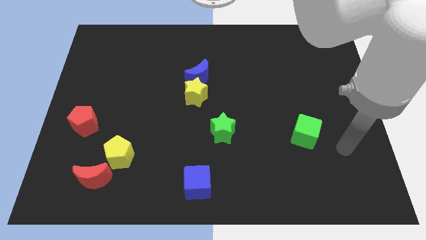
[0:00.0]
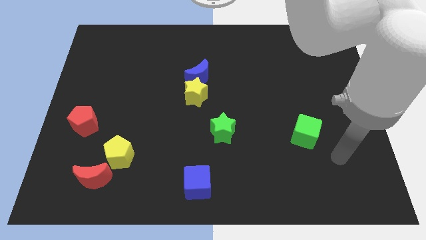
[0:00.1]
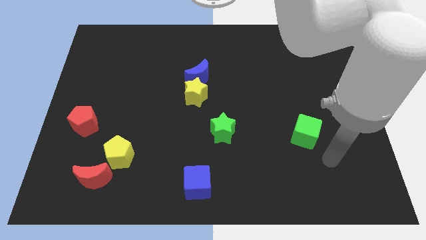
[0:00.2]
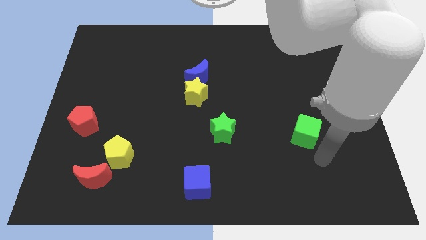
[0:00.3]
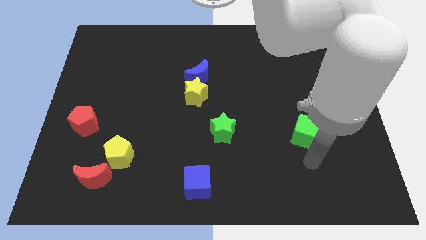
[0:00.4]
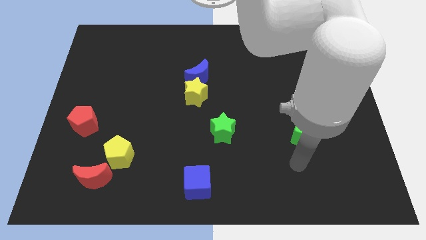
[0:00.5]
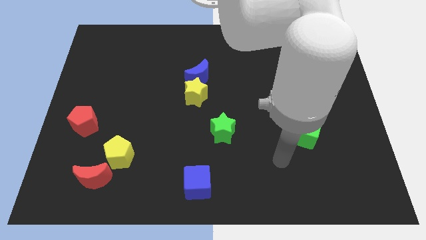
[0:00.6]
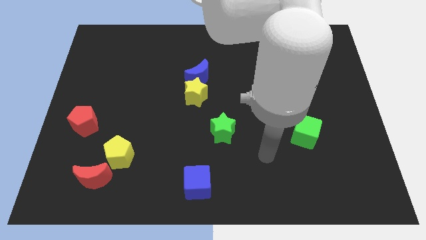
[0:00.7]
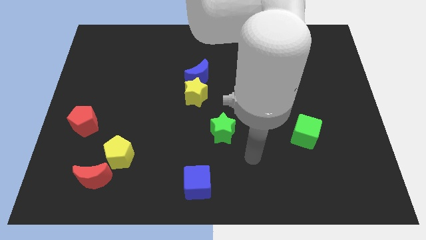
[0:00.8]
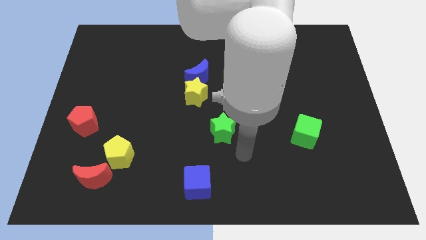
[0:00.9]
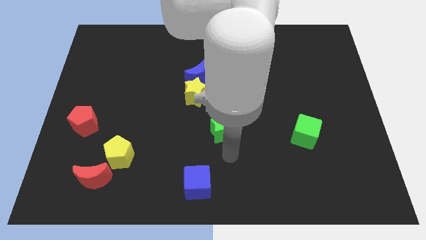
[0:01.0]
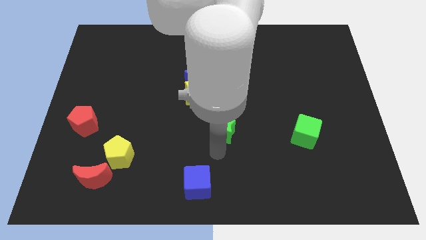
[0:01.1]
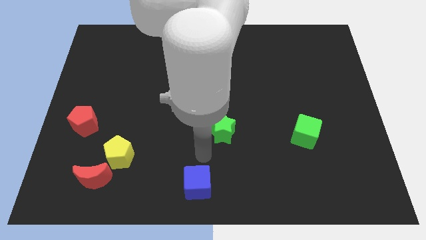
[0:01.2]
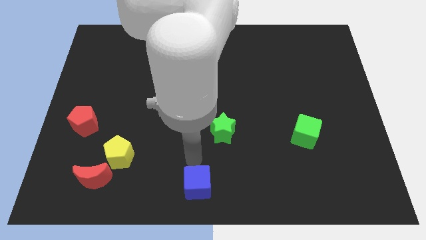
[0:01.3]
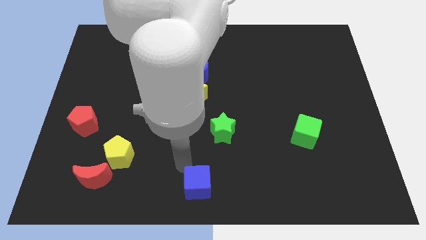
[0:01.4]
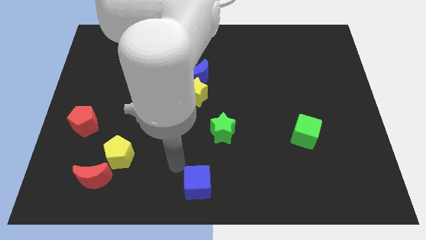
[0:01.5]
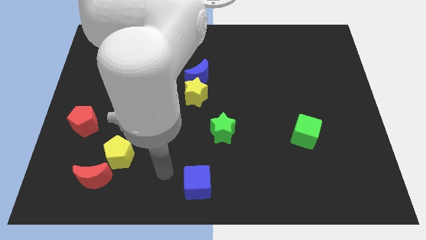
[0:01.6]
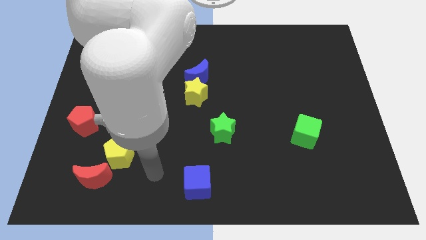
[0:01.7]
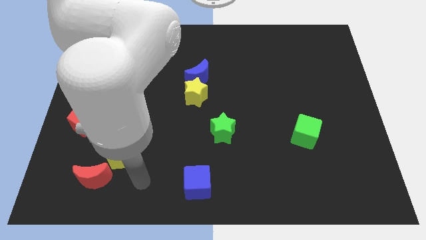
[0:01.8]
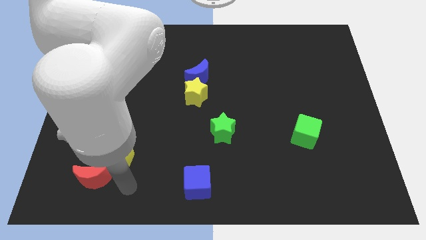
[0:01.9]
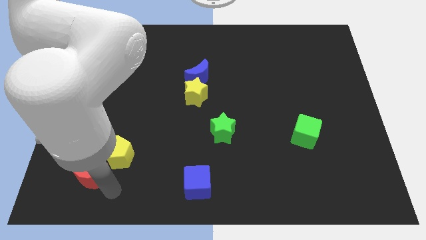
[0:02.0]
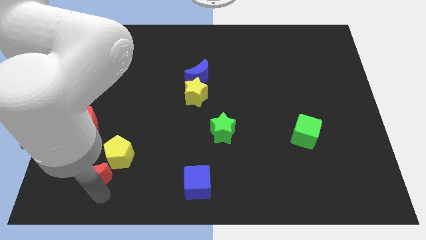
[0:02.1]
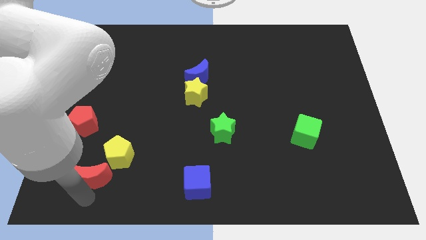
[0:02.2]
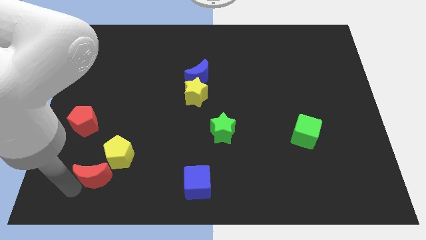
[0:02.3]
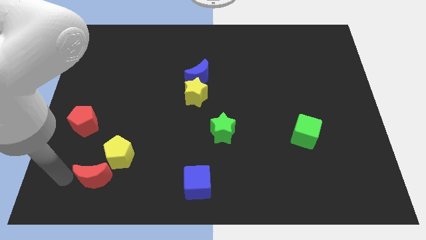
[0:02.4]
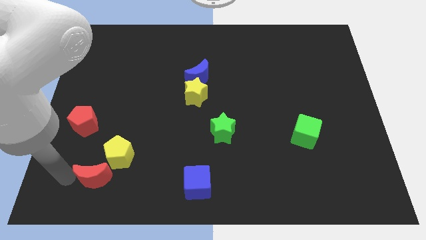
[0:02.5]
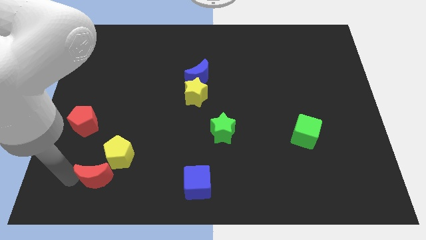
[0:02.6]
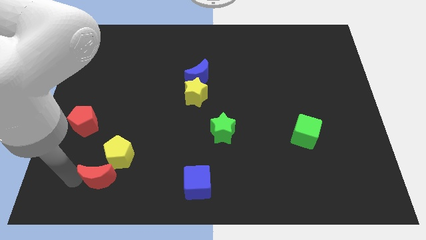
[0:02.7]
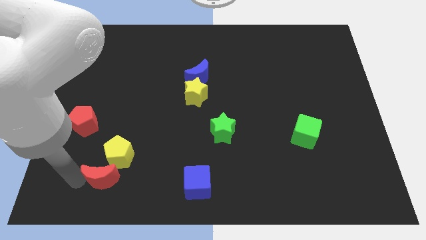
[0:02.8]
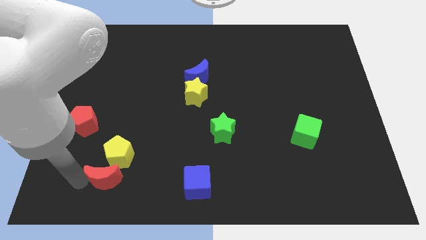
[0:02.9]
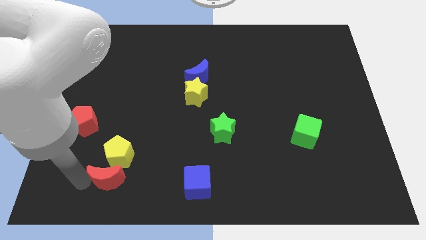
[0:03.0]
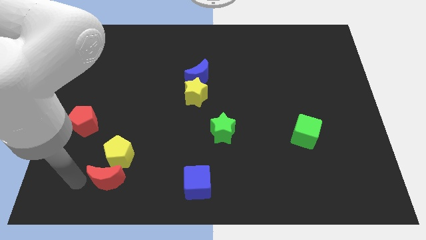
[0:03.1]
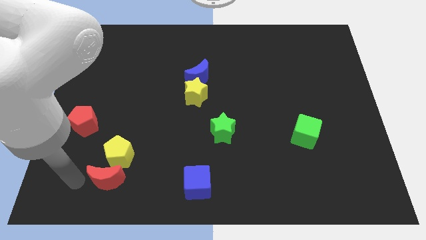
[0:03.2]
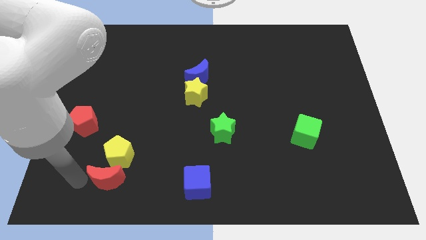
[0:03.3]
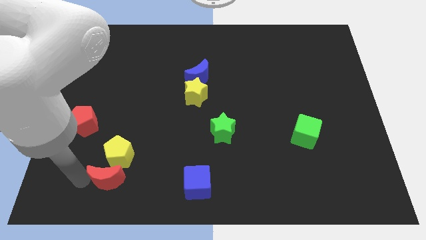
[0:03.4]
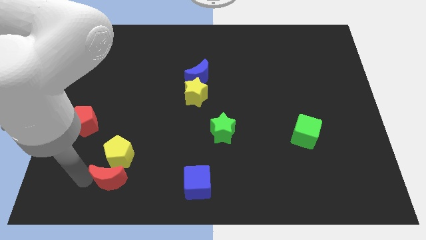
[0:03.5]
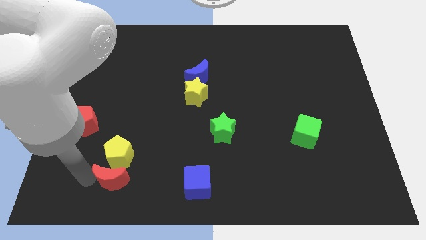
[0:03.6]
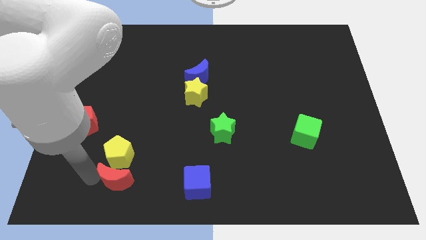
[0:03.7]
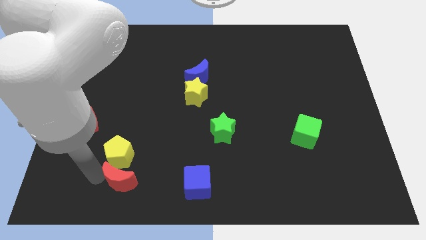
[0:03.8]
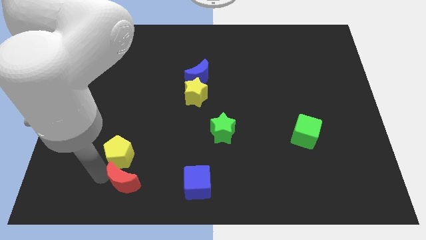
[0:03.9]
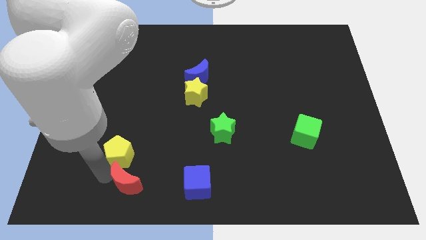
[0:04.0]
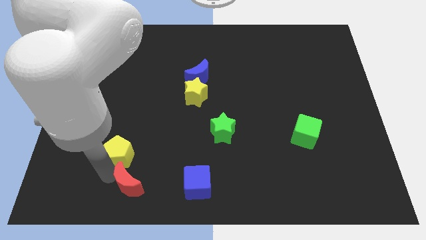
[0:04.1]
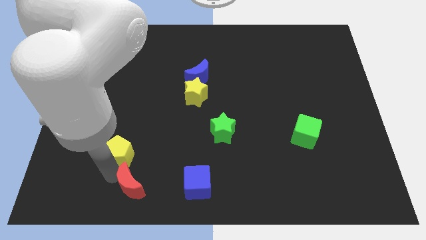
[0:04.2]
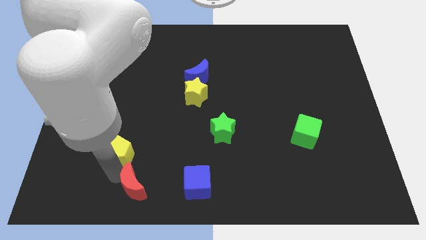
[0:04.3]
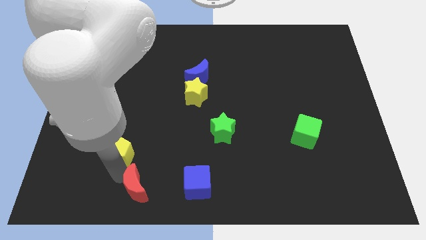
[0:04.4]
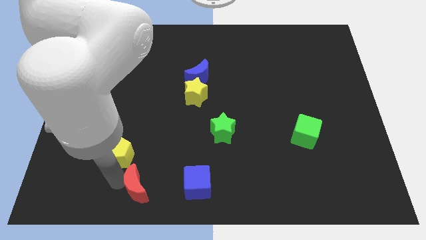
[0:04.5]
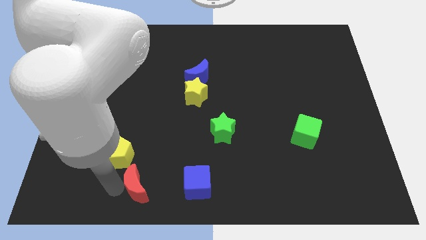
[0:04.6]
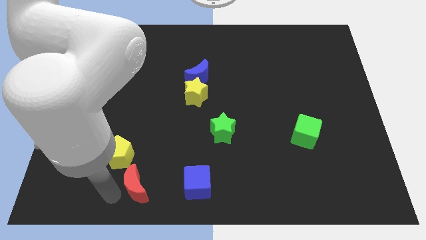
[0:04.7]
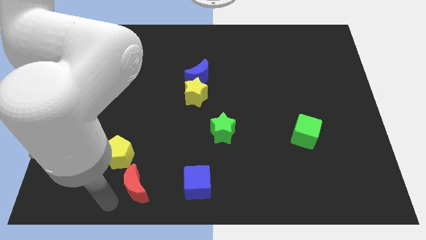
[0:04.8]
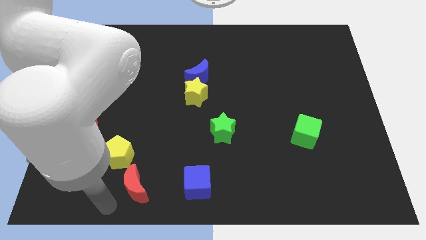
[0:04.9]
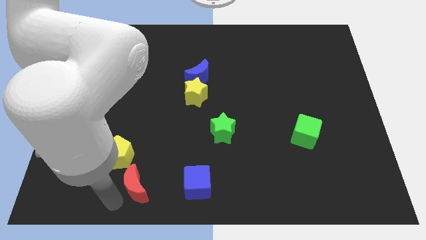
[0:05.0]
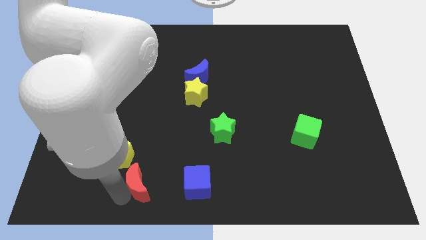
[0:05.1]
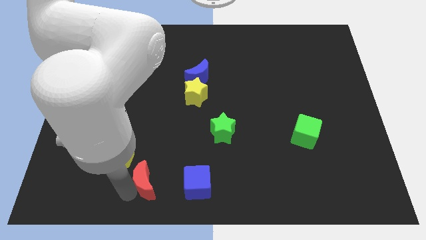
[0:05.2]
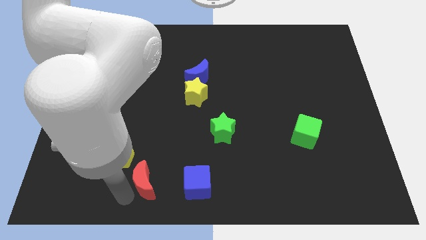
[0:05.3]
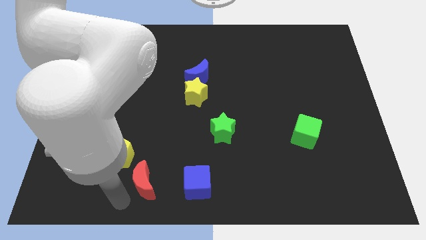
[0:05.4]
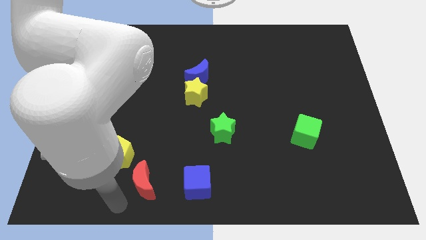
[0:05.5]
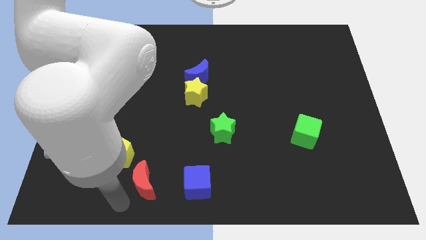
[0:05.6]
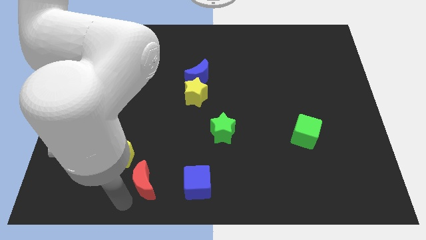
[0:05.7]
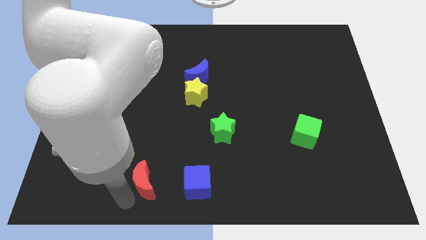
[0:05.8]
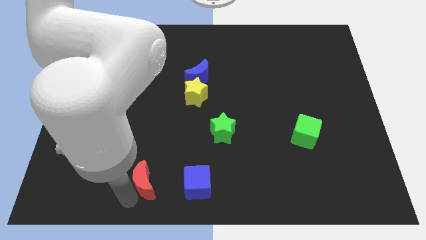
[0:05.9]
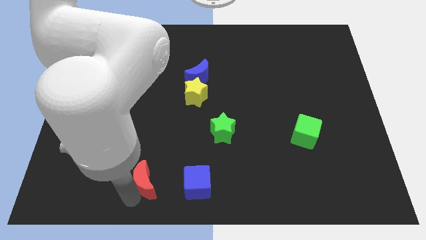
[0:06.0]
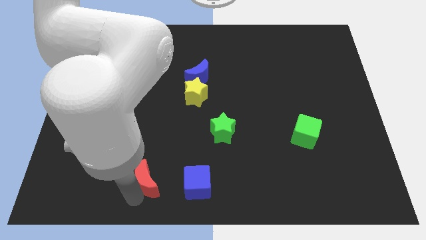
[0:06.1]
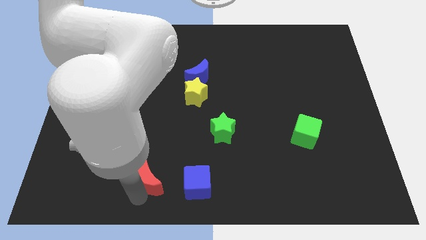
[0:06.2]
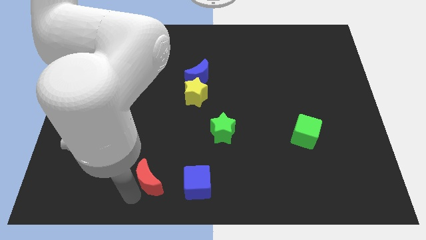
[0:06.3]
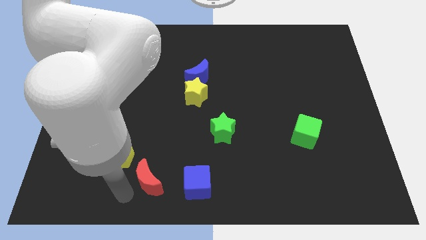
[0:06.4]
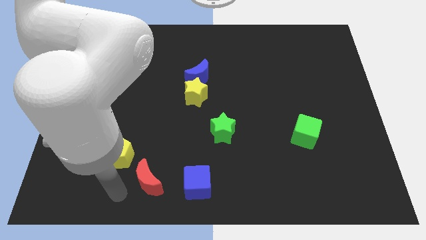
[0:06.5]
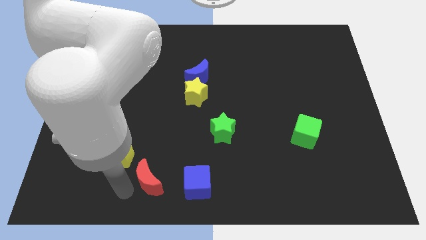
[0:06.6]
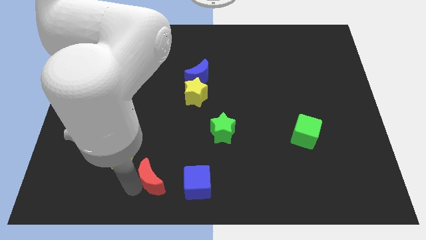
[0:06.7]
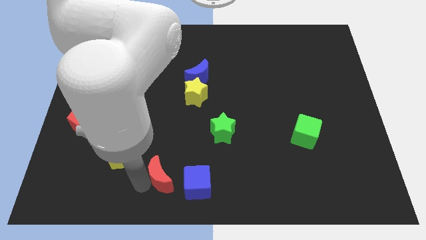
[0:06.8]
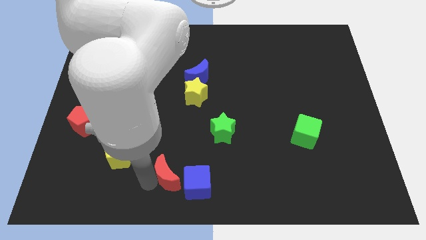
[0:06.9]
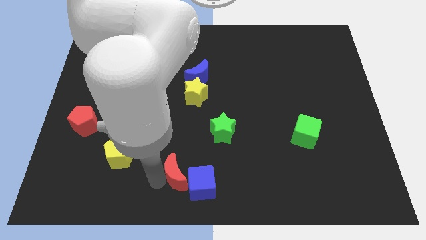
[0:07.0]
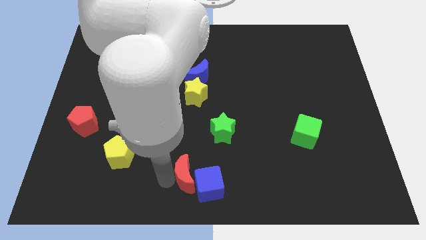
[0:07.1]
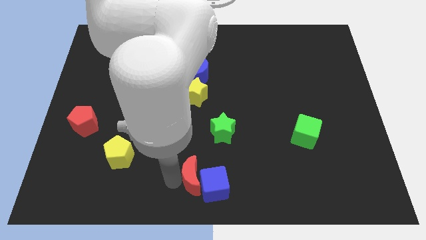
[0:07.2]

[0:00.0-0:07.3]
push the red moon right

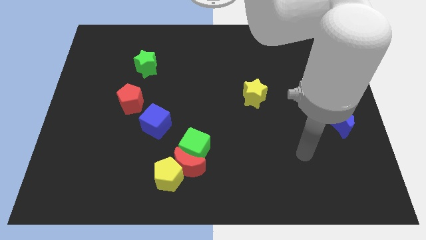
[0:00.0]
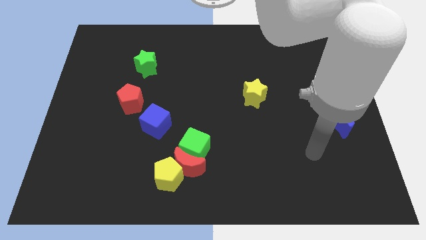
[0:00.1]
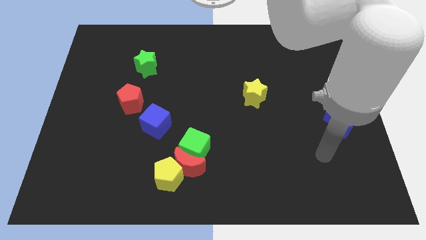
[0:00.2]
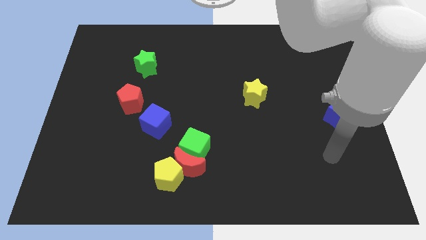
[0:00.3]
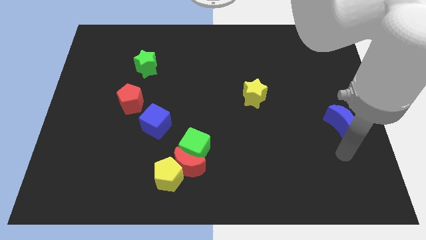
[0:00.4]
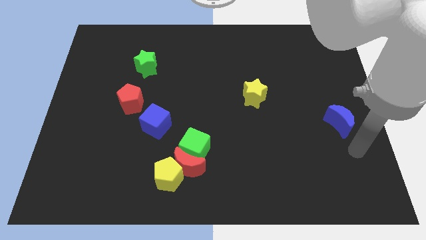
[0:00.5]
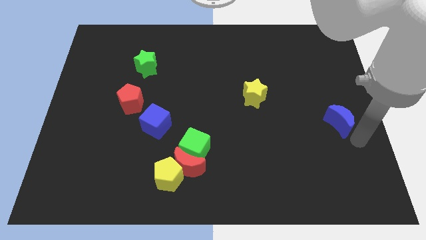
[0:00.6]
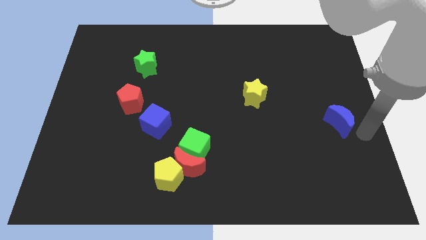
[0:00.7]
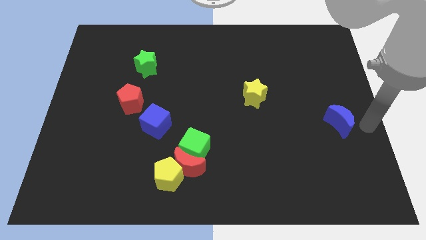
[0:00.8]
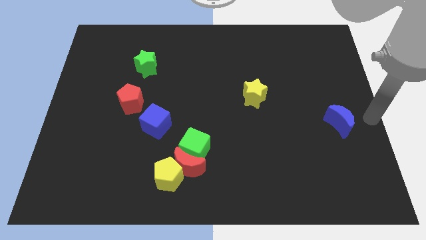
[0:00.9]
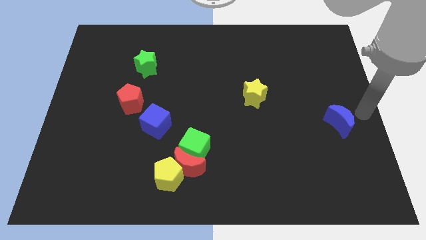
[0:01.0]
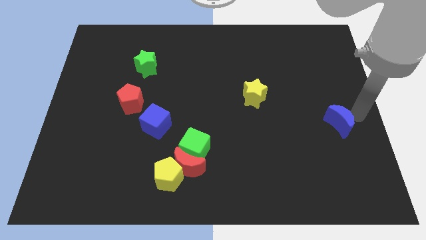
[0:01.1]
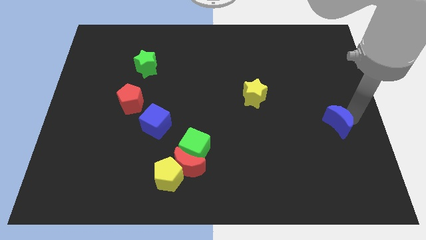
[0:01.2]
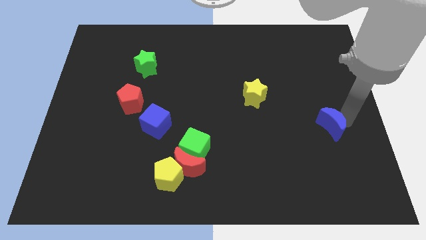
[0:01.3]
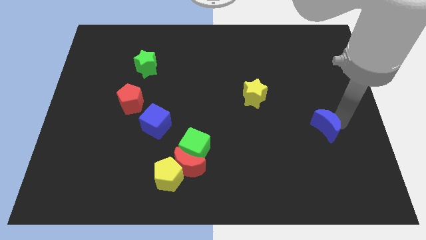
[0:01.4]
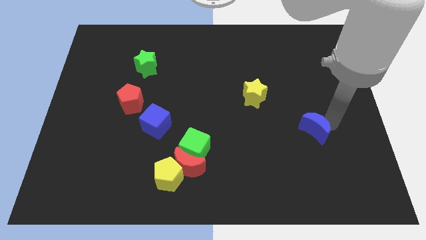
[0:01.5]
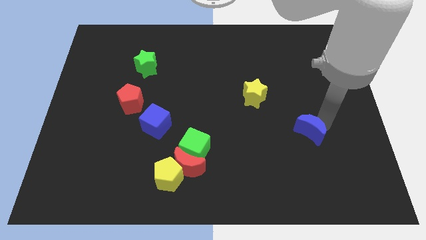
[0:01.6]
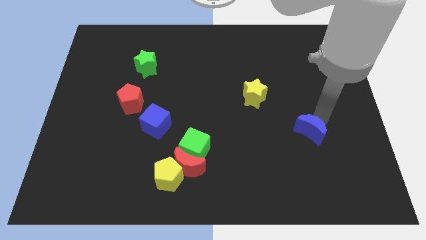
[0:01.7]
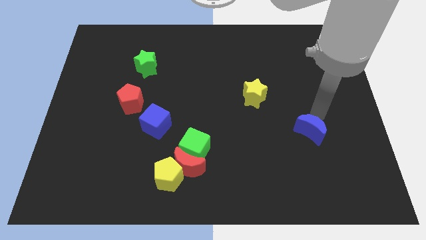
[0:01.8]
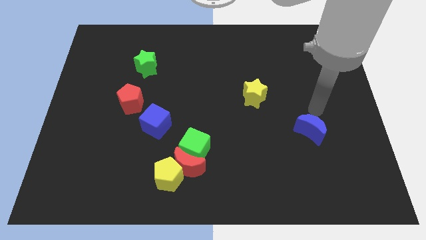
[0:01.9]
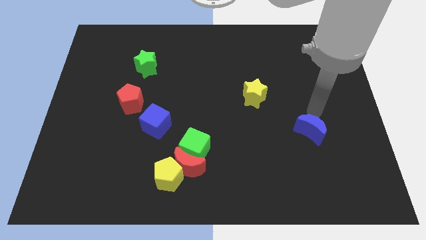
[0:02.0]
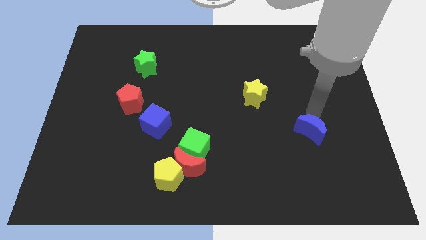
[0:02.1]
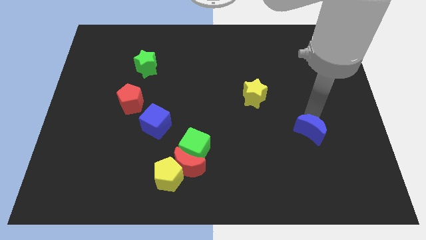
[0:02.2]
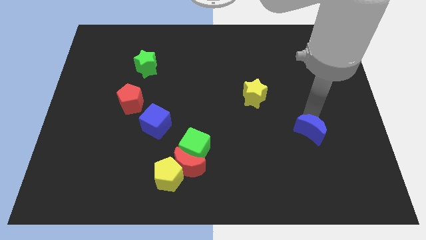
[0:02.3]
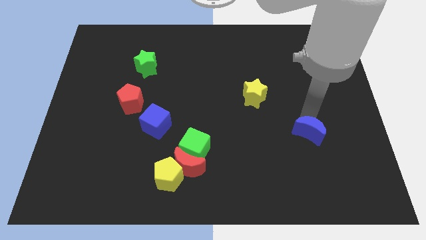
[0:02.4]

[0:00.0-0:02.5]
slide the blue moon diagonally down and to the left a little
